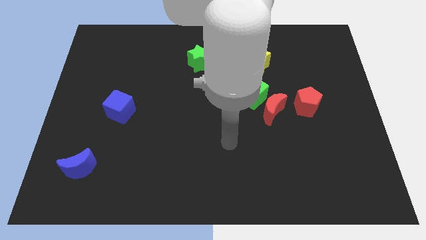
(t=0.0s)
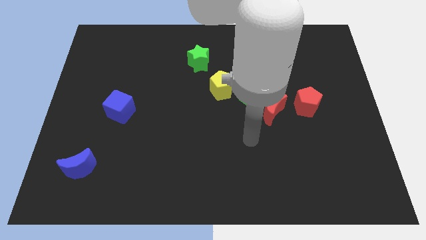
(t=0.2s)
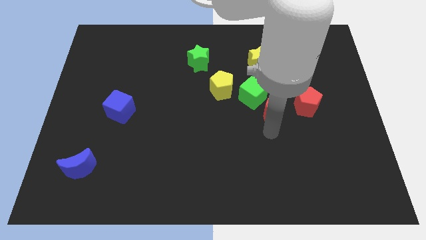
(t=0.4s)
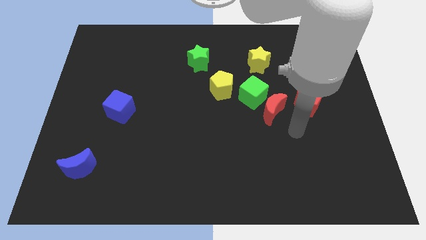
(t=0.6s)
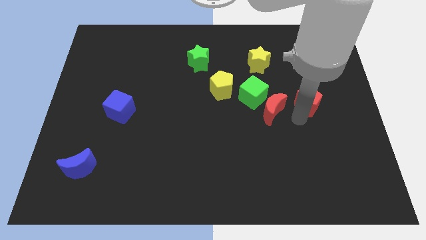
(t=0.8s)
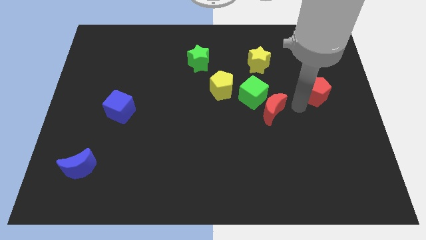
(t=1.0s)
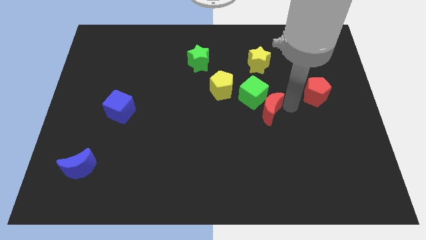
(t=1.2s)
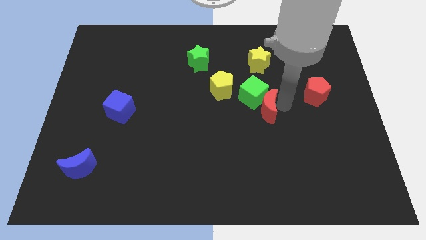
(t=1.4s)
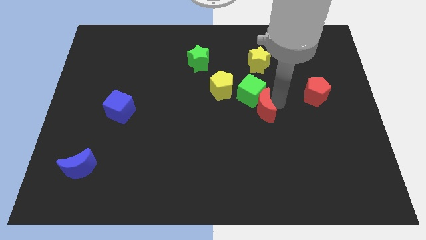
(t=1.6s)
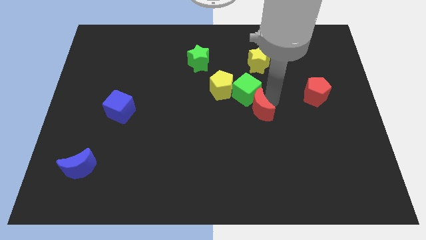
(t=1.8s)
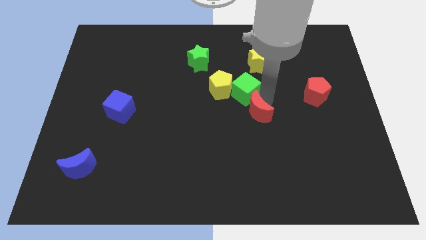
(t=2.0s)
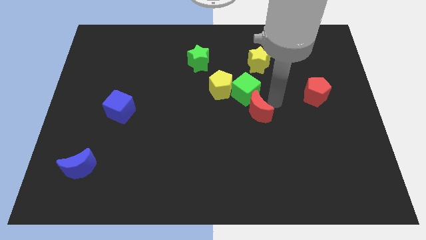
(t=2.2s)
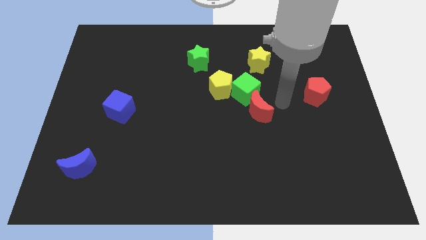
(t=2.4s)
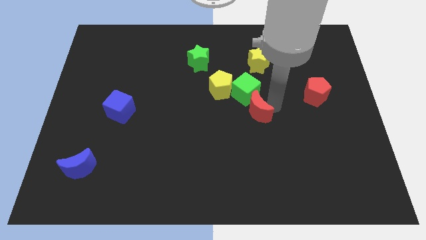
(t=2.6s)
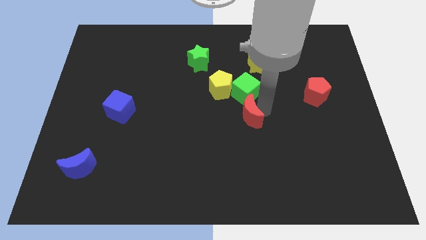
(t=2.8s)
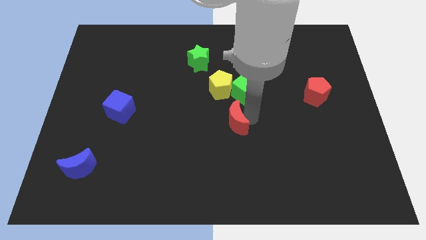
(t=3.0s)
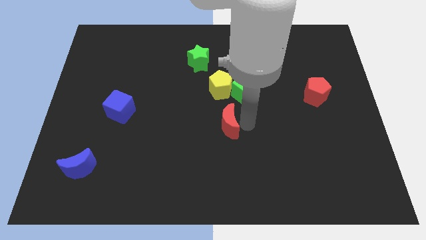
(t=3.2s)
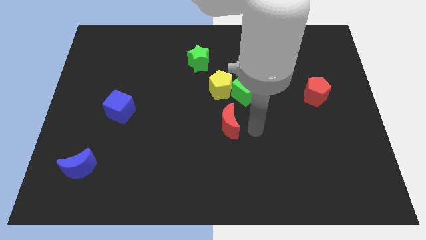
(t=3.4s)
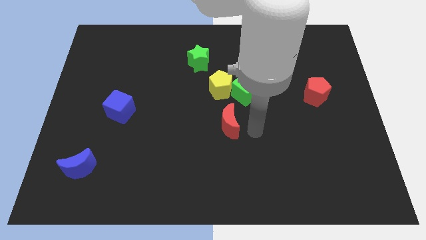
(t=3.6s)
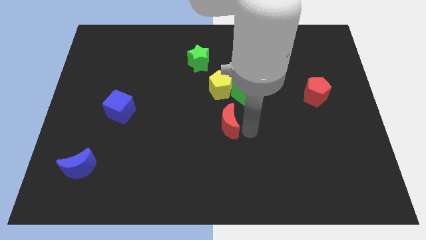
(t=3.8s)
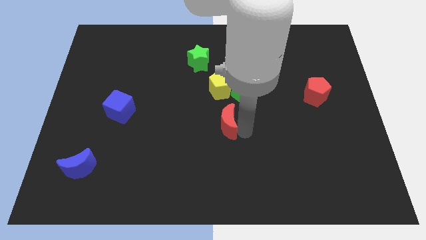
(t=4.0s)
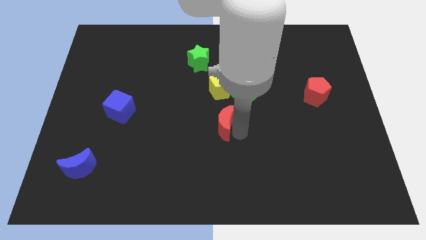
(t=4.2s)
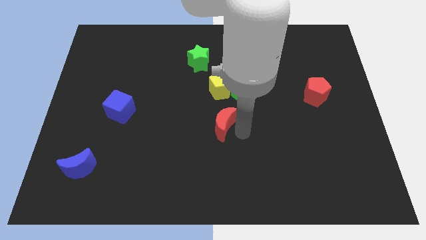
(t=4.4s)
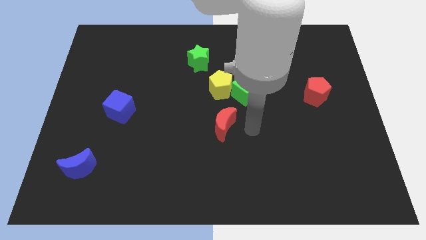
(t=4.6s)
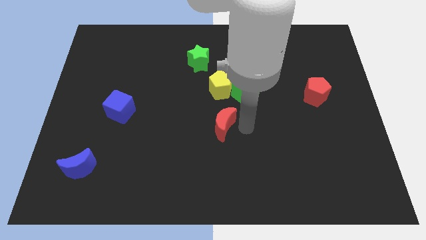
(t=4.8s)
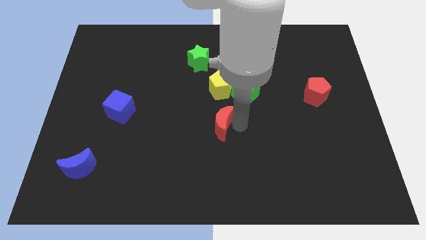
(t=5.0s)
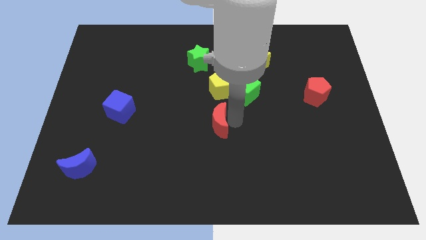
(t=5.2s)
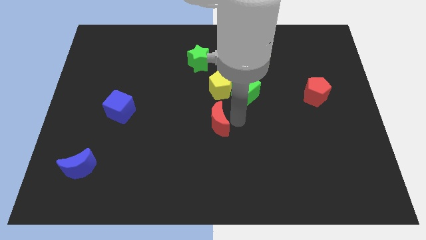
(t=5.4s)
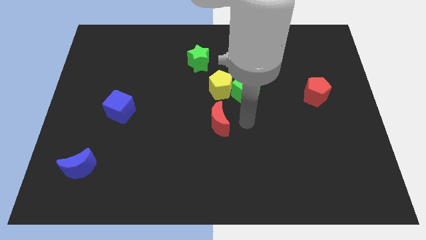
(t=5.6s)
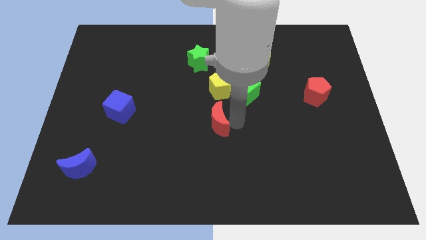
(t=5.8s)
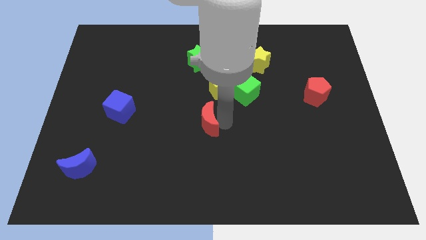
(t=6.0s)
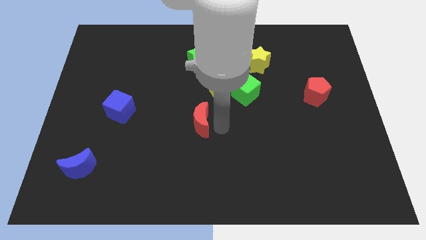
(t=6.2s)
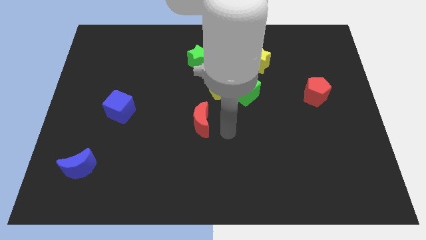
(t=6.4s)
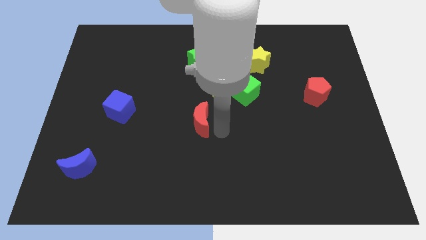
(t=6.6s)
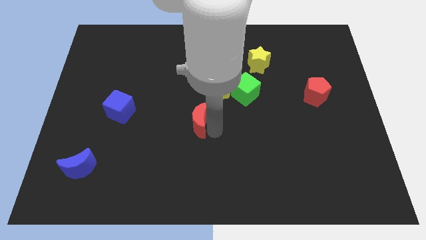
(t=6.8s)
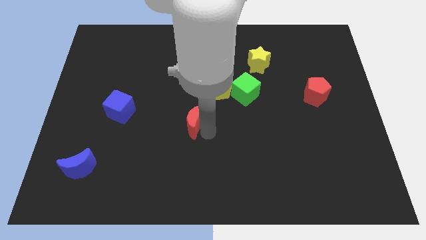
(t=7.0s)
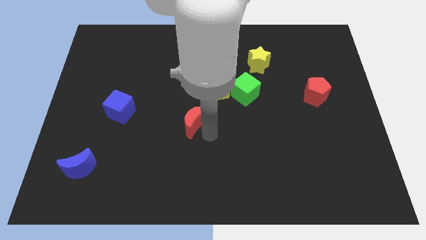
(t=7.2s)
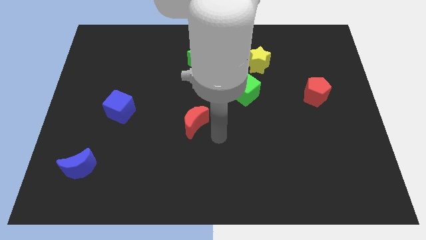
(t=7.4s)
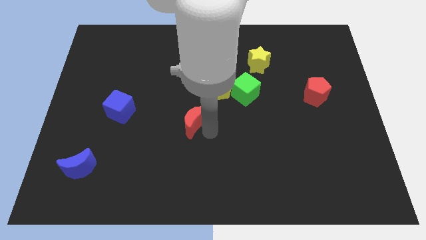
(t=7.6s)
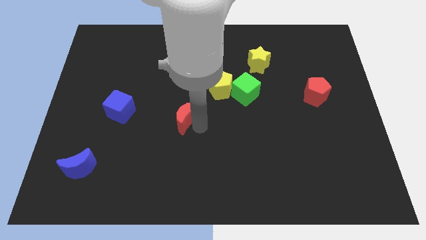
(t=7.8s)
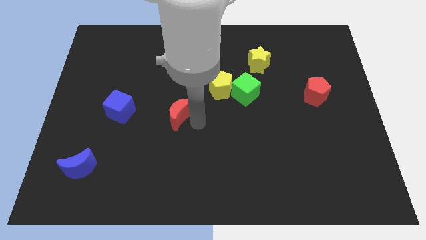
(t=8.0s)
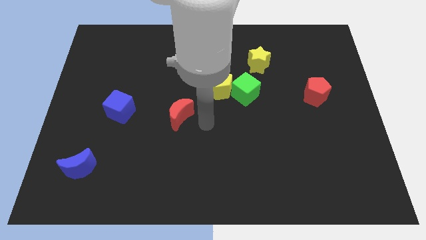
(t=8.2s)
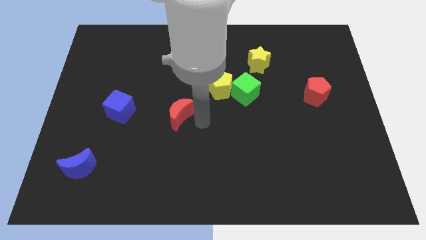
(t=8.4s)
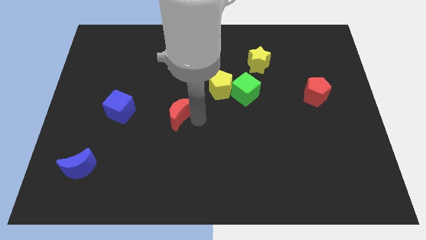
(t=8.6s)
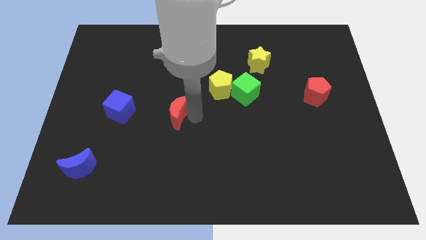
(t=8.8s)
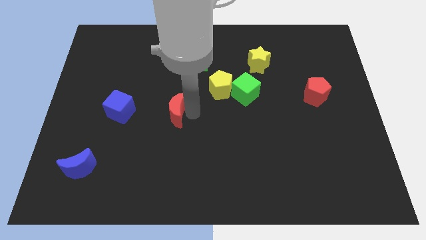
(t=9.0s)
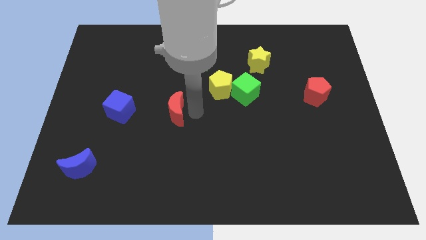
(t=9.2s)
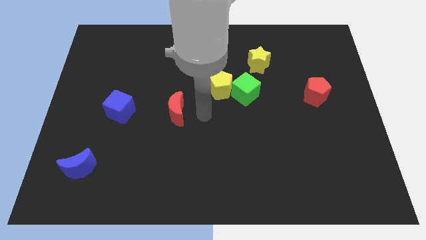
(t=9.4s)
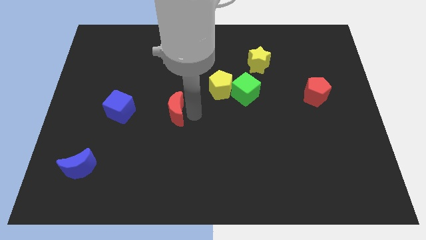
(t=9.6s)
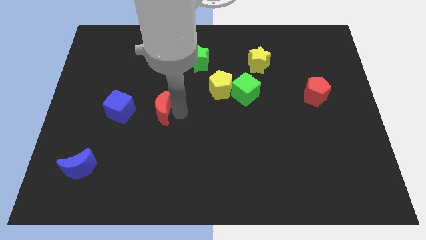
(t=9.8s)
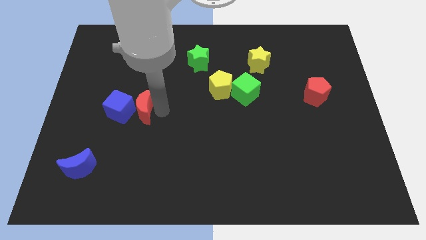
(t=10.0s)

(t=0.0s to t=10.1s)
put the red moon towards the blue cube

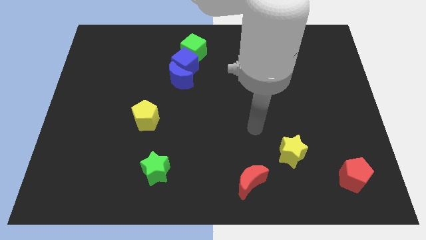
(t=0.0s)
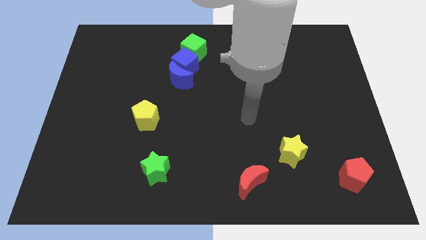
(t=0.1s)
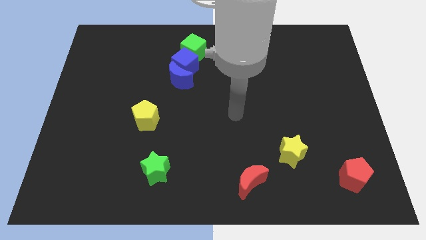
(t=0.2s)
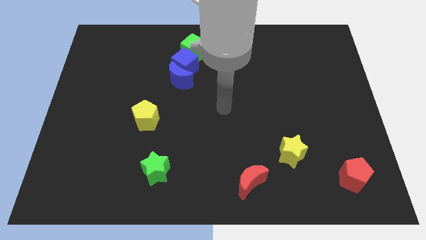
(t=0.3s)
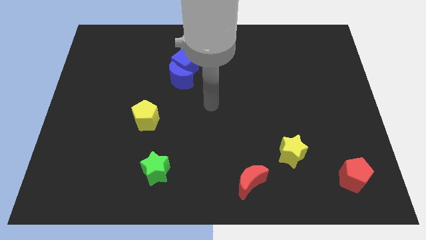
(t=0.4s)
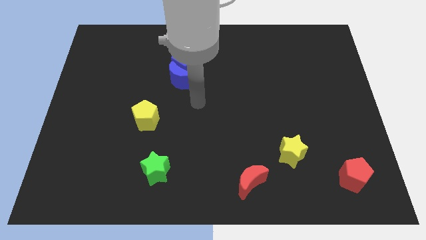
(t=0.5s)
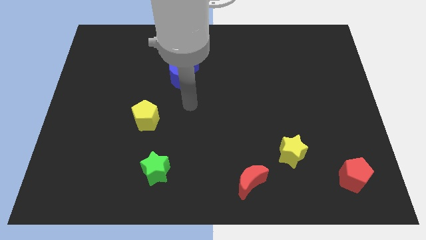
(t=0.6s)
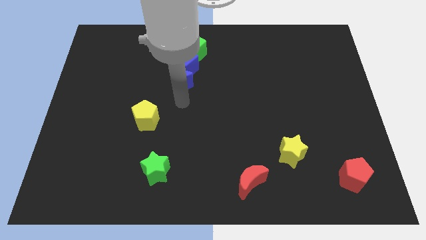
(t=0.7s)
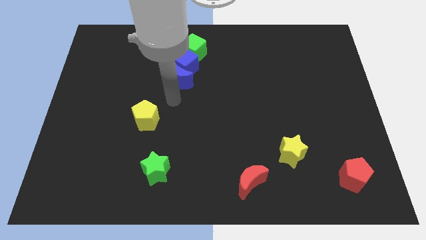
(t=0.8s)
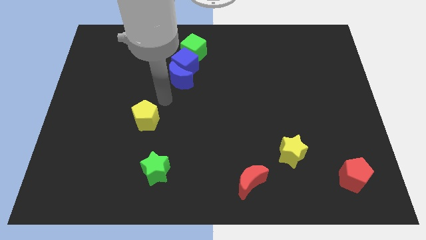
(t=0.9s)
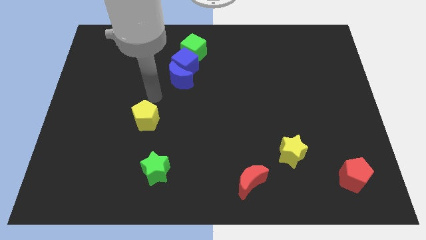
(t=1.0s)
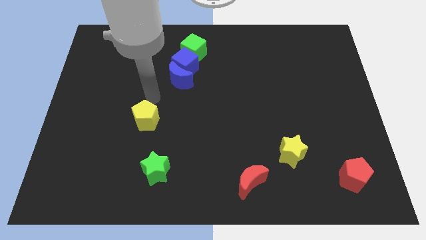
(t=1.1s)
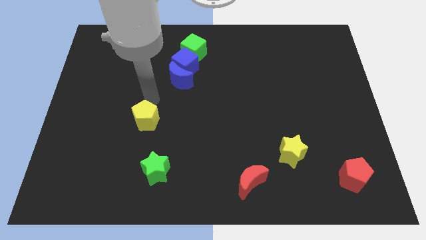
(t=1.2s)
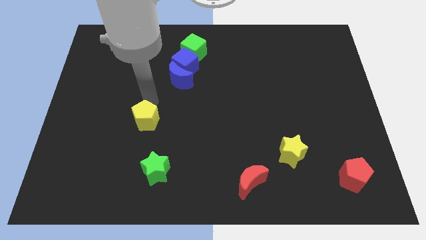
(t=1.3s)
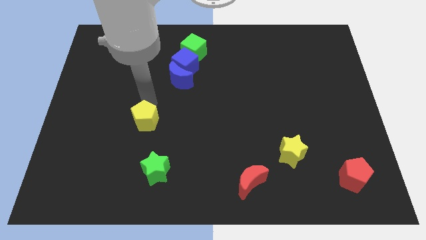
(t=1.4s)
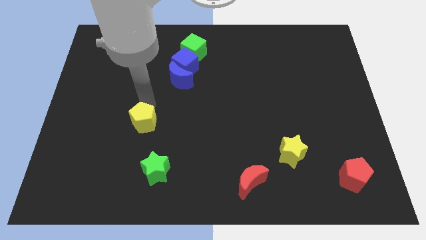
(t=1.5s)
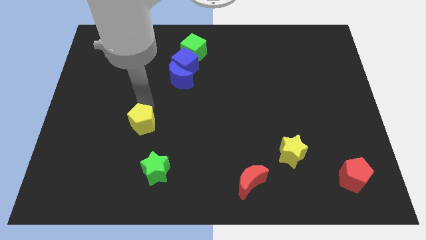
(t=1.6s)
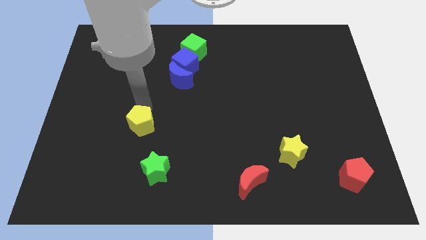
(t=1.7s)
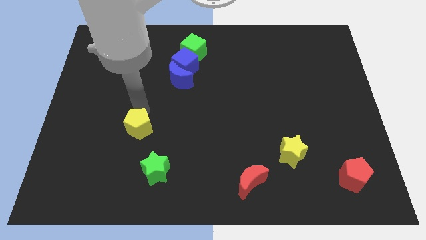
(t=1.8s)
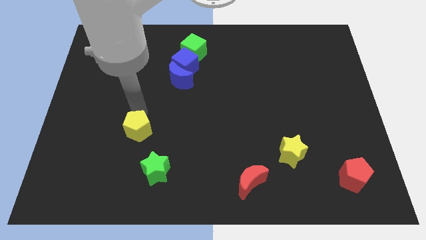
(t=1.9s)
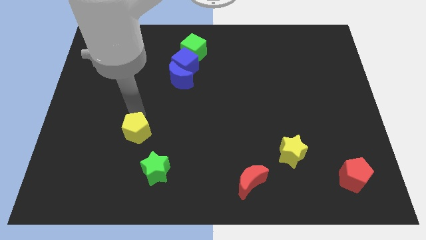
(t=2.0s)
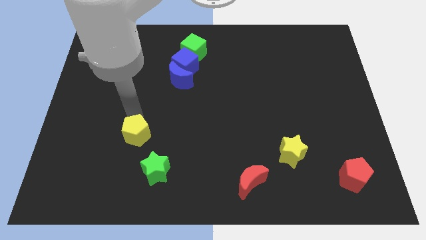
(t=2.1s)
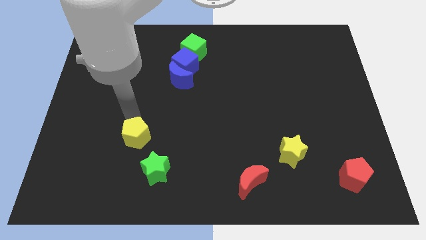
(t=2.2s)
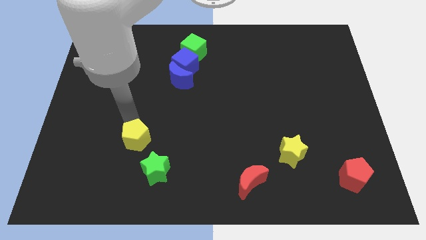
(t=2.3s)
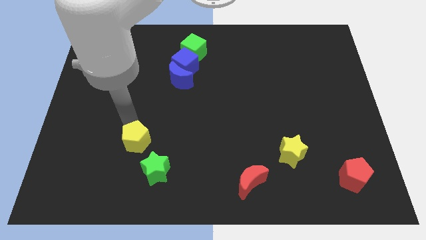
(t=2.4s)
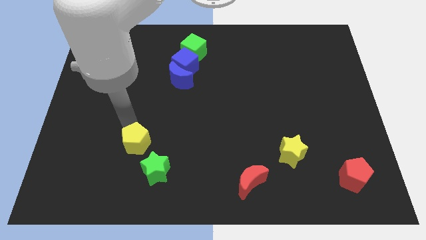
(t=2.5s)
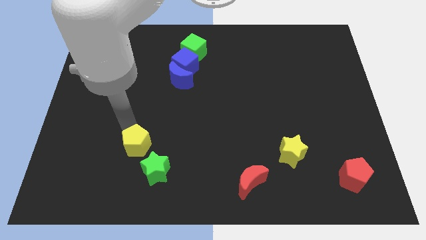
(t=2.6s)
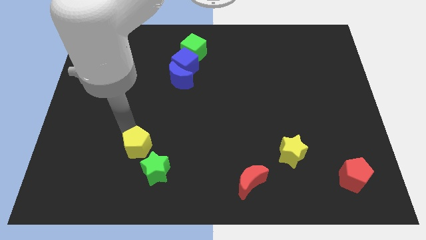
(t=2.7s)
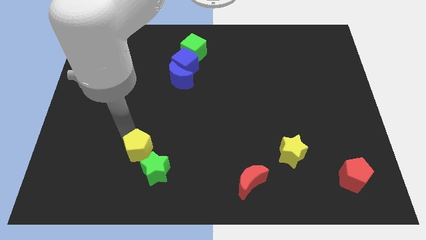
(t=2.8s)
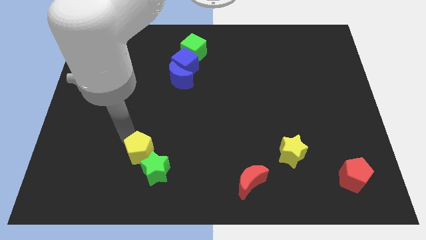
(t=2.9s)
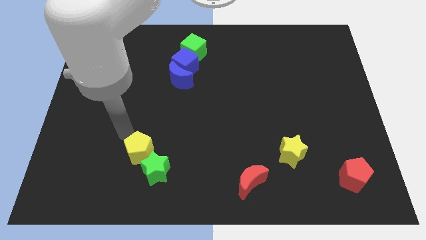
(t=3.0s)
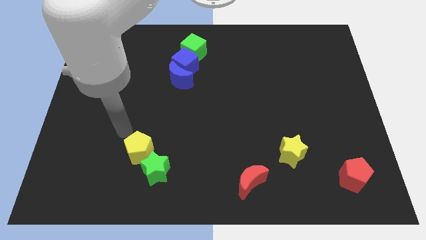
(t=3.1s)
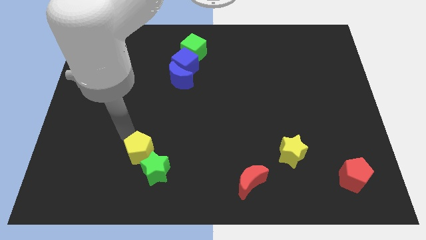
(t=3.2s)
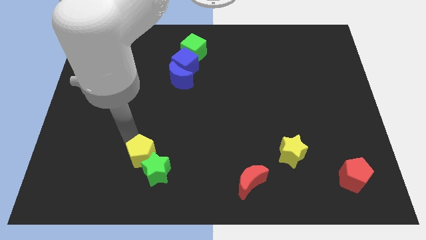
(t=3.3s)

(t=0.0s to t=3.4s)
put the yellow pentagon close to the green star
